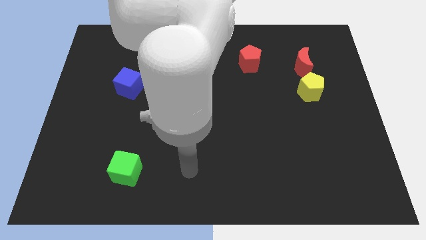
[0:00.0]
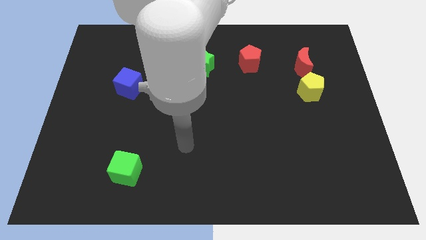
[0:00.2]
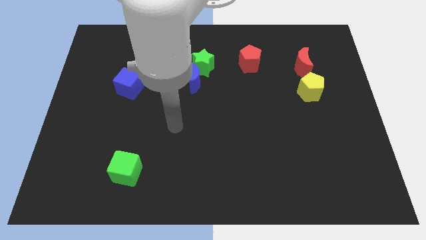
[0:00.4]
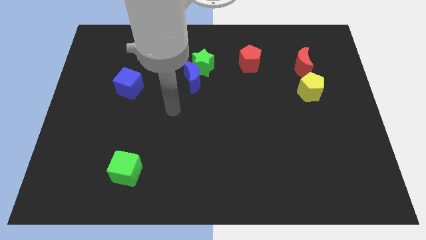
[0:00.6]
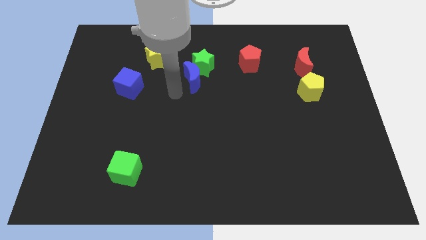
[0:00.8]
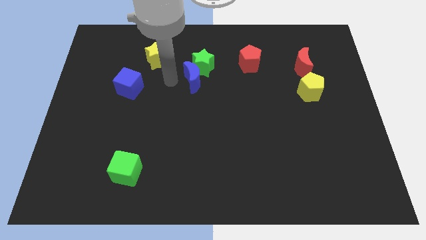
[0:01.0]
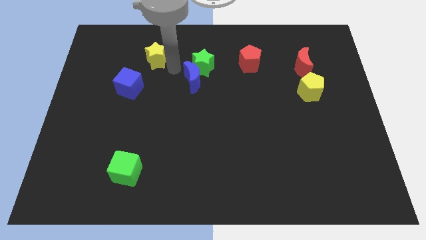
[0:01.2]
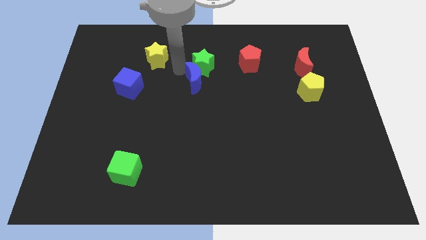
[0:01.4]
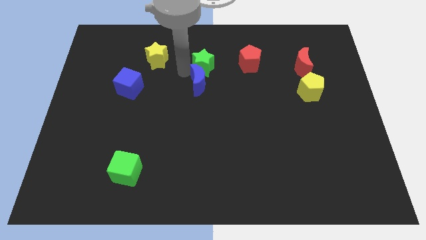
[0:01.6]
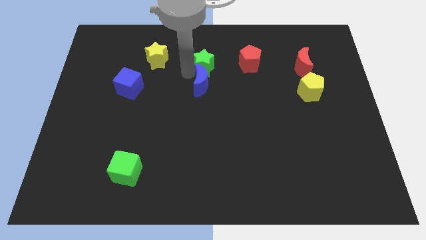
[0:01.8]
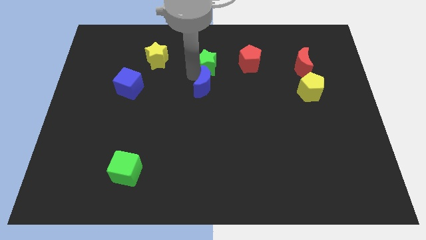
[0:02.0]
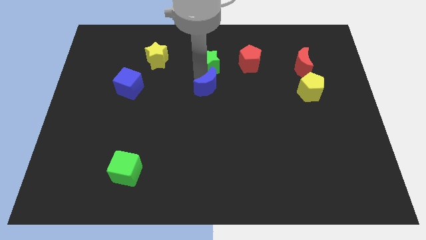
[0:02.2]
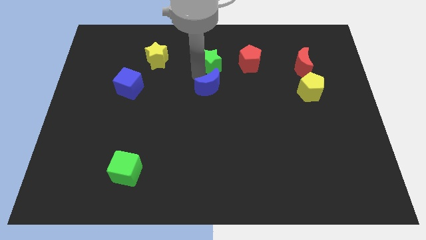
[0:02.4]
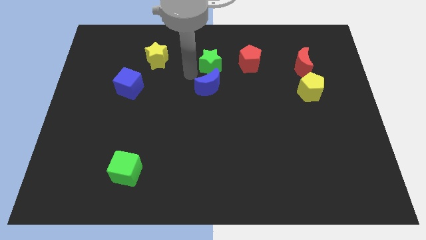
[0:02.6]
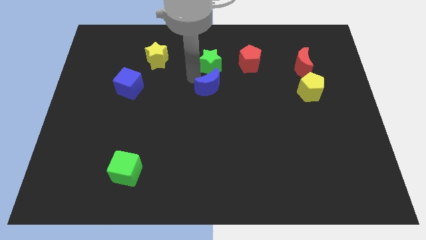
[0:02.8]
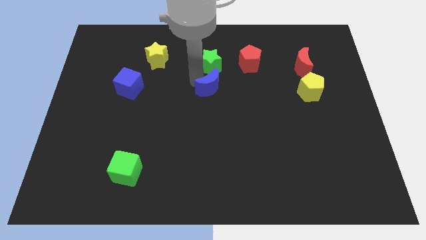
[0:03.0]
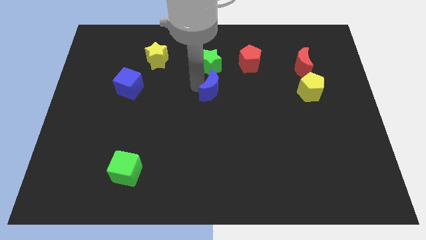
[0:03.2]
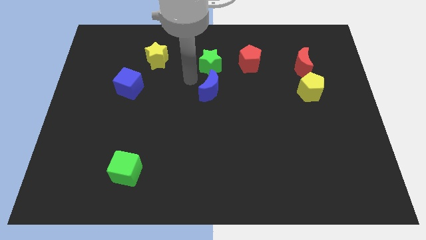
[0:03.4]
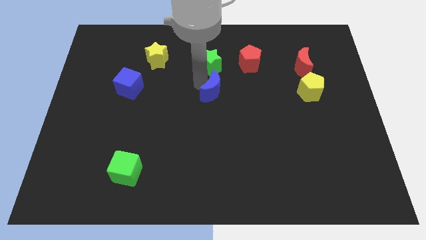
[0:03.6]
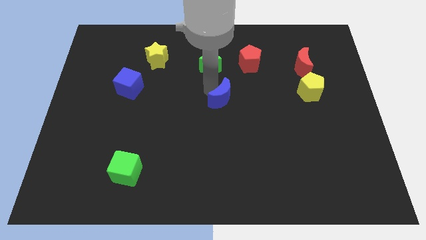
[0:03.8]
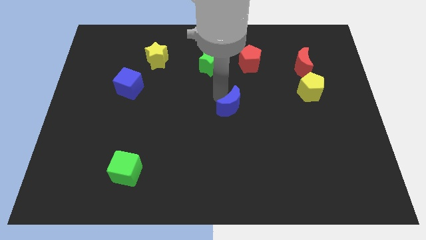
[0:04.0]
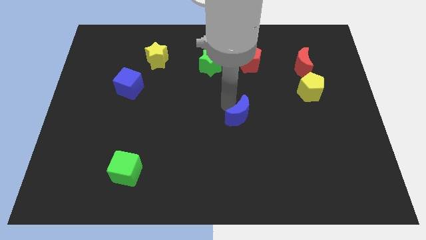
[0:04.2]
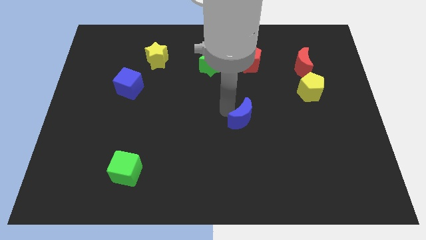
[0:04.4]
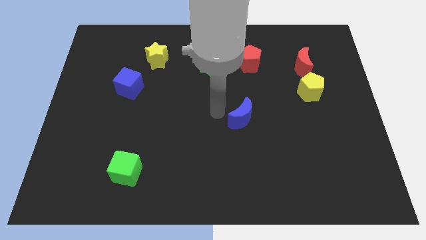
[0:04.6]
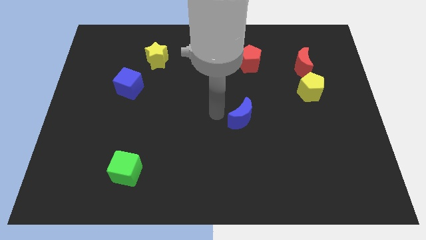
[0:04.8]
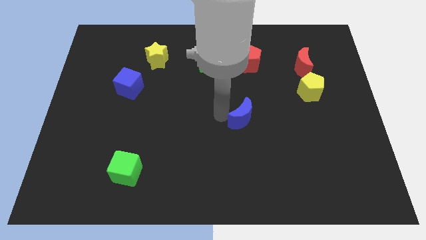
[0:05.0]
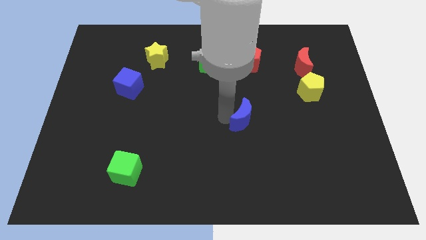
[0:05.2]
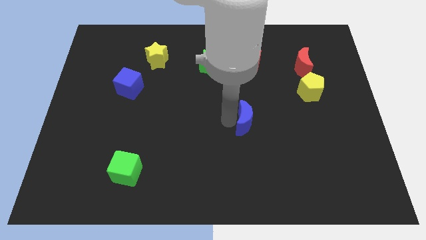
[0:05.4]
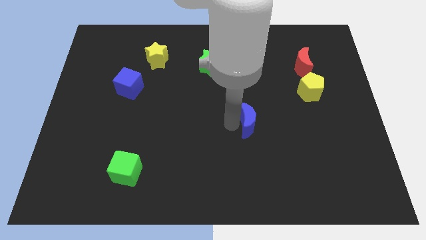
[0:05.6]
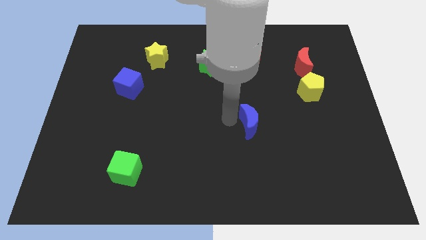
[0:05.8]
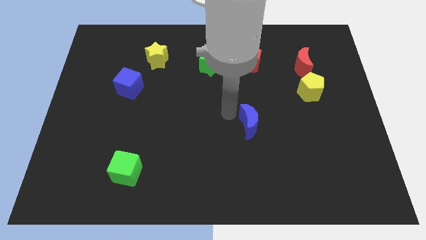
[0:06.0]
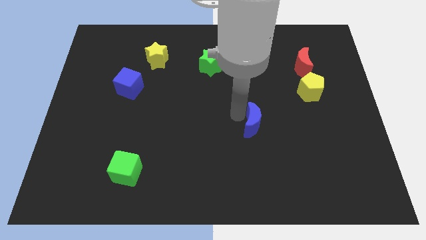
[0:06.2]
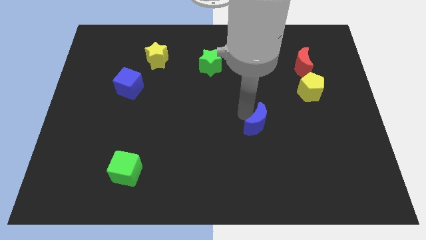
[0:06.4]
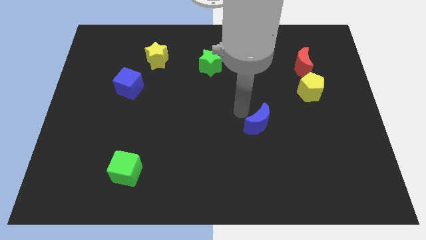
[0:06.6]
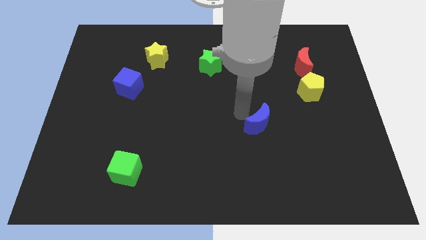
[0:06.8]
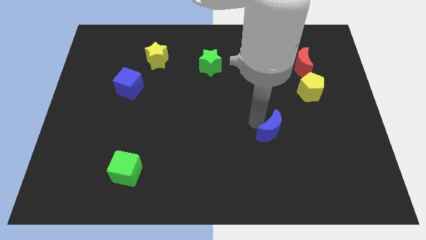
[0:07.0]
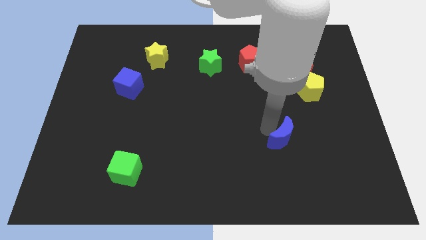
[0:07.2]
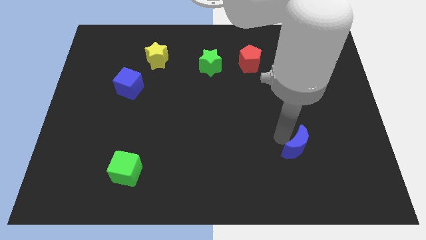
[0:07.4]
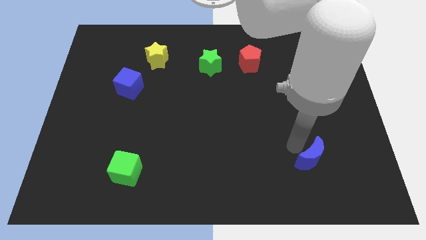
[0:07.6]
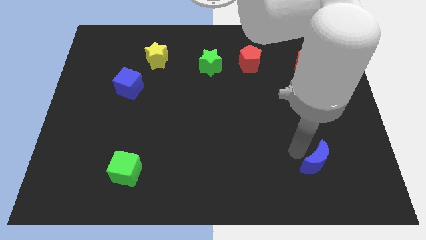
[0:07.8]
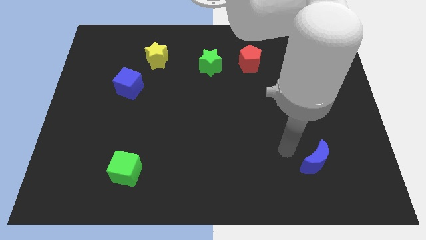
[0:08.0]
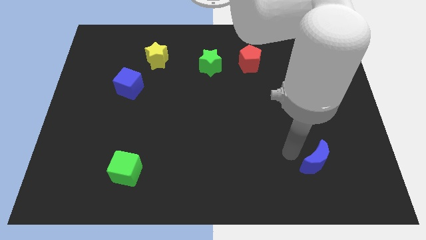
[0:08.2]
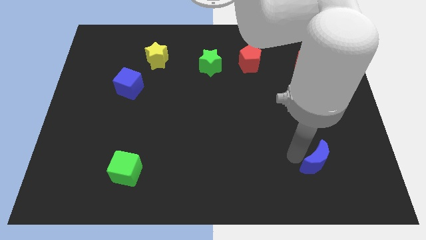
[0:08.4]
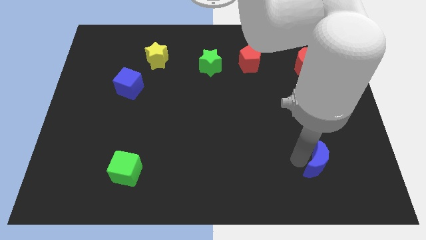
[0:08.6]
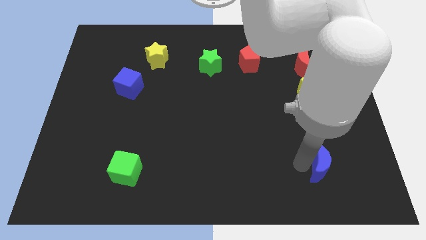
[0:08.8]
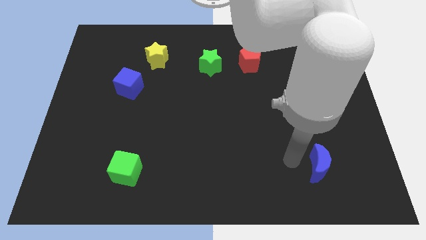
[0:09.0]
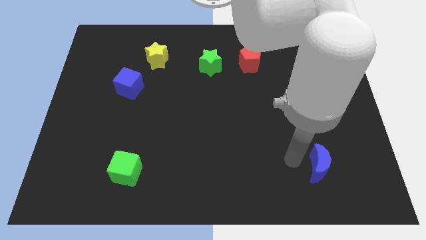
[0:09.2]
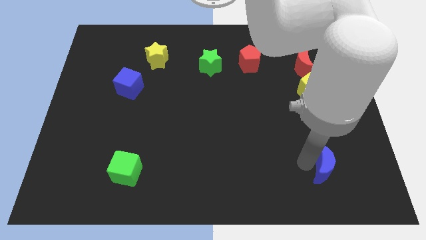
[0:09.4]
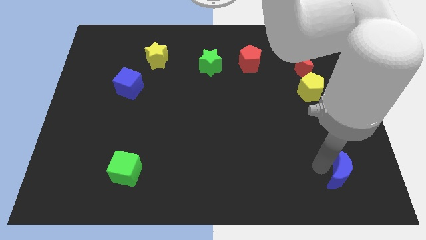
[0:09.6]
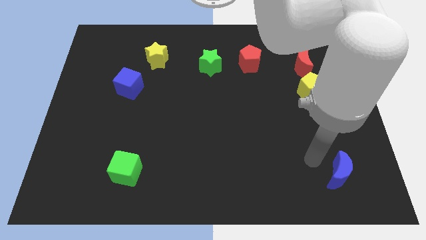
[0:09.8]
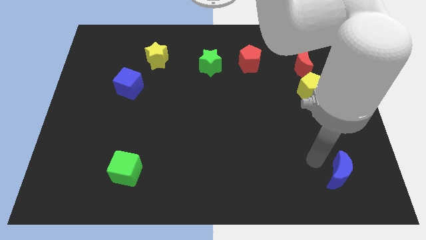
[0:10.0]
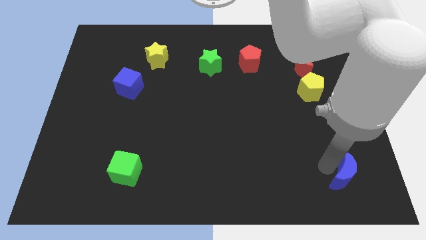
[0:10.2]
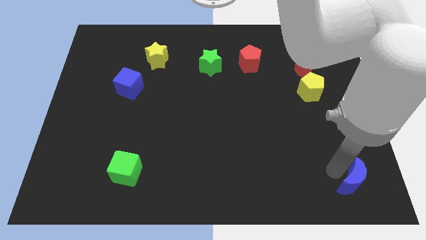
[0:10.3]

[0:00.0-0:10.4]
put the blue moon to the bottom right corner
